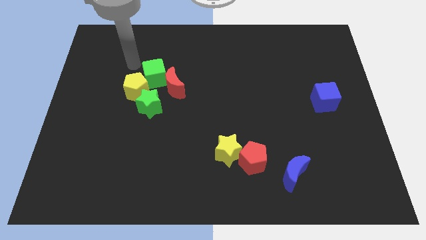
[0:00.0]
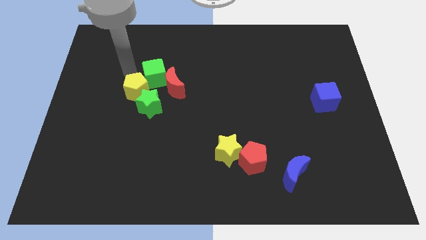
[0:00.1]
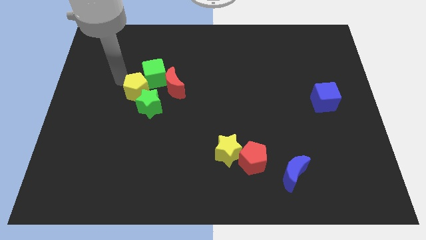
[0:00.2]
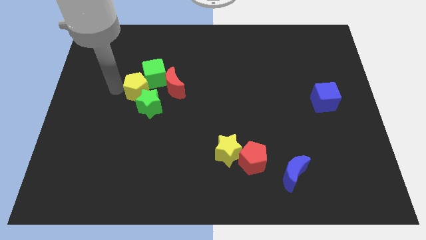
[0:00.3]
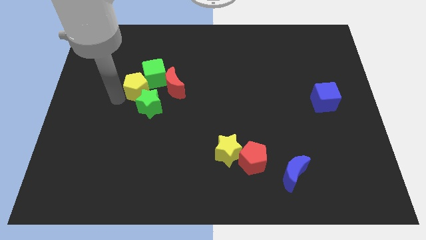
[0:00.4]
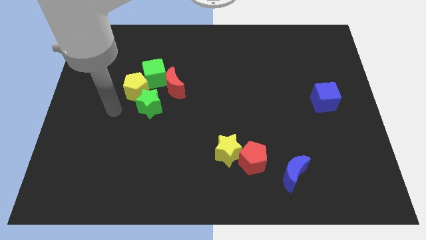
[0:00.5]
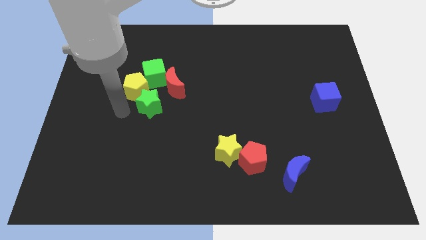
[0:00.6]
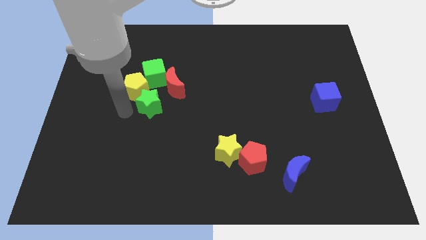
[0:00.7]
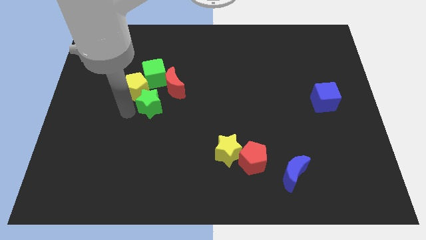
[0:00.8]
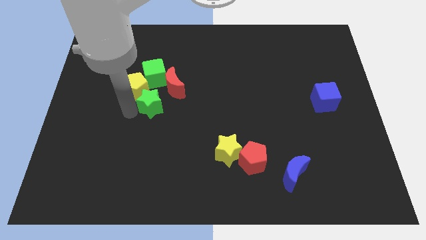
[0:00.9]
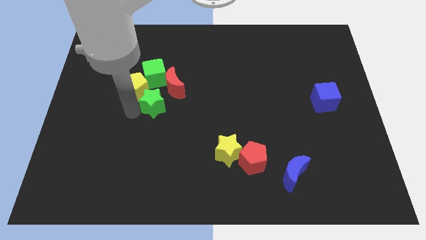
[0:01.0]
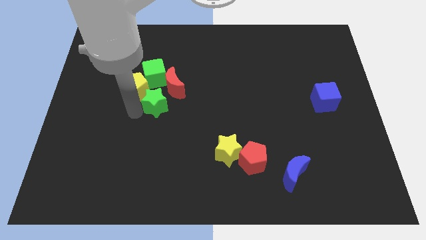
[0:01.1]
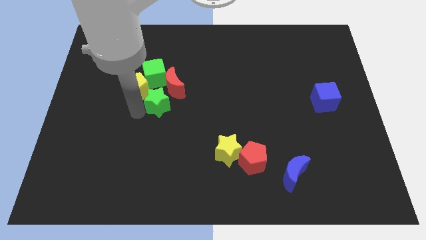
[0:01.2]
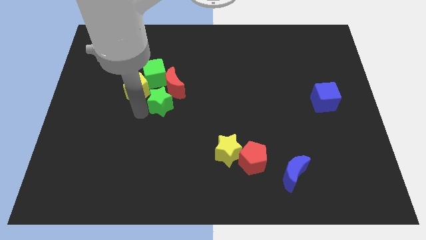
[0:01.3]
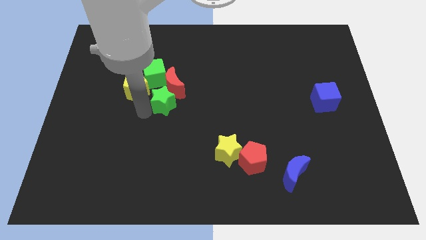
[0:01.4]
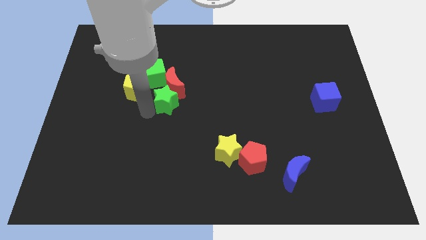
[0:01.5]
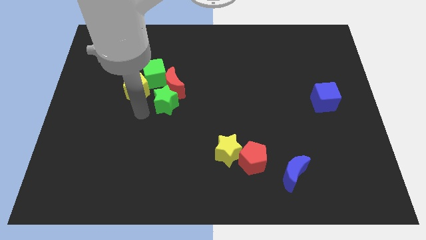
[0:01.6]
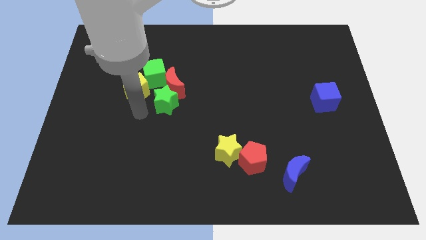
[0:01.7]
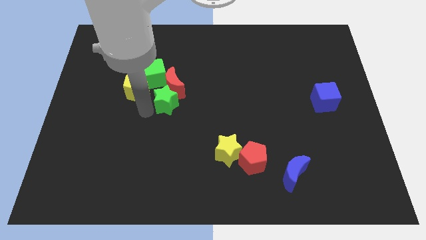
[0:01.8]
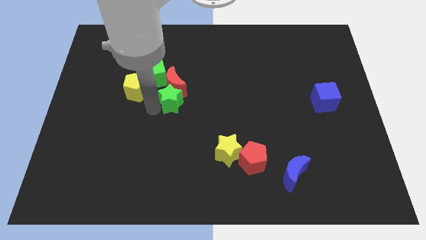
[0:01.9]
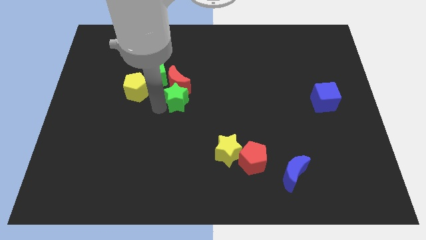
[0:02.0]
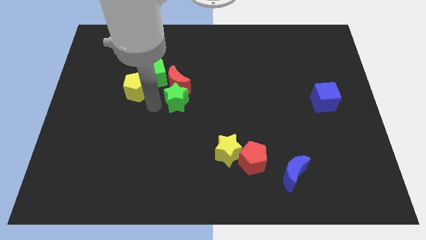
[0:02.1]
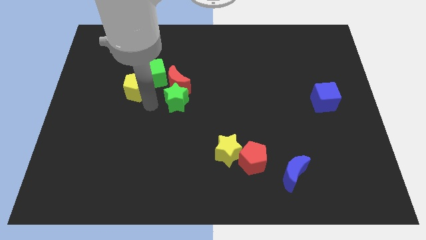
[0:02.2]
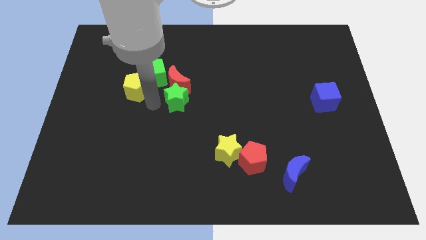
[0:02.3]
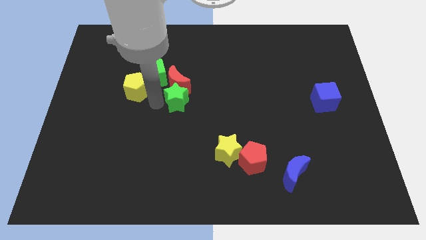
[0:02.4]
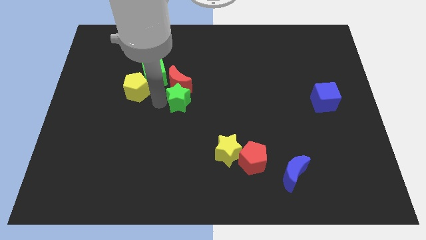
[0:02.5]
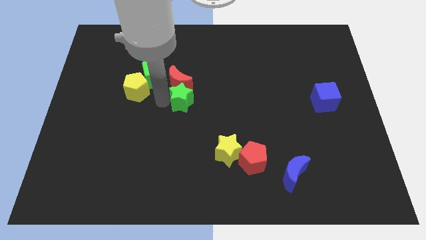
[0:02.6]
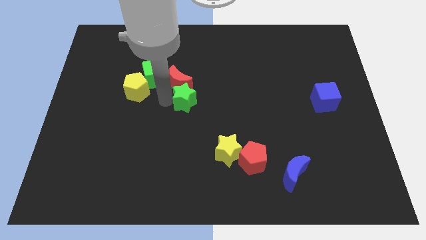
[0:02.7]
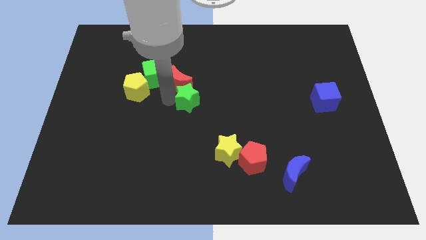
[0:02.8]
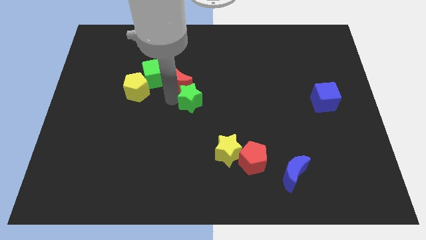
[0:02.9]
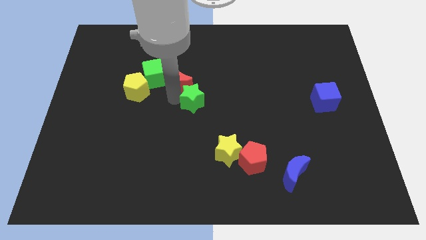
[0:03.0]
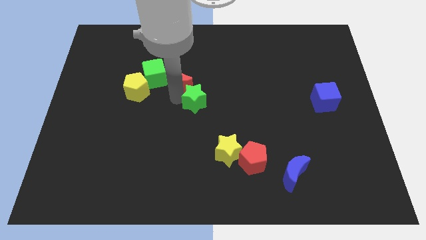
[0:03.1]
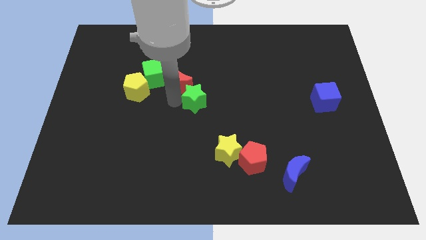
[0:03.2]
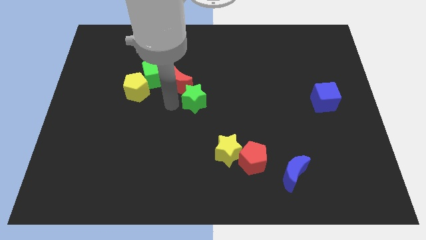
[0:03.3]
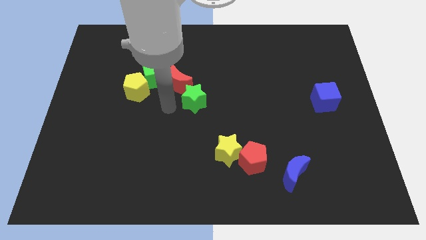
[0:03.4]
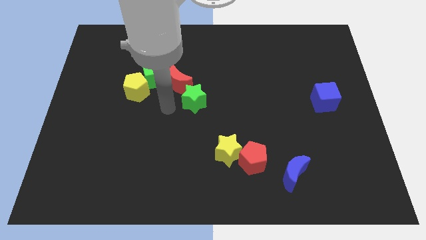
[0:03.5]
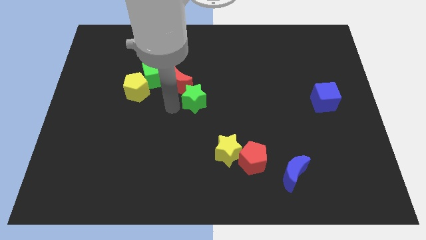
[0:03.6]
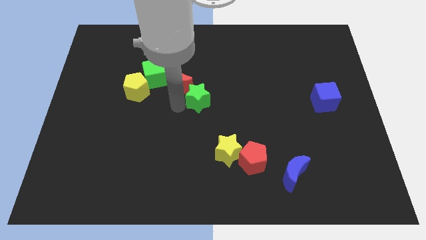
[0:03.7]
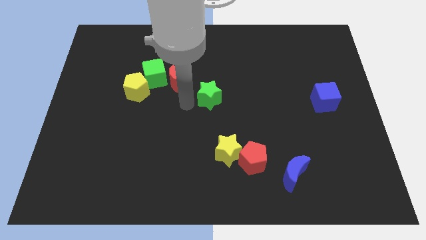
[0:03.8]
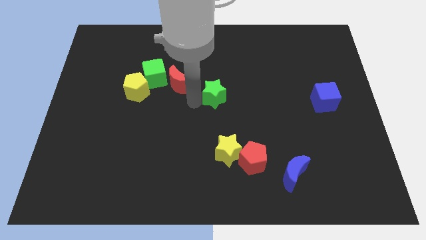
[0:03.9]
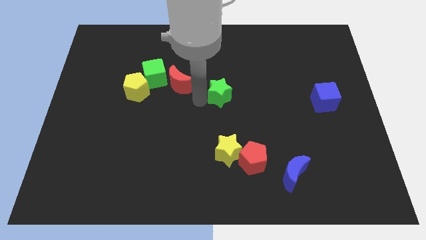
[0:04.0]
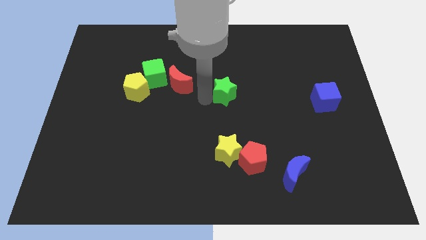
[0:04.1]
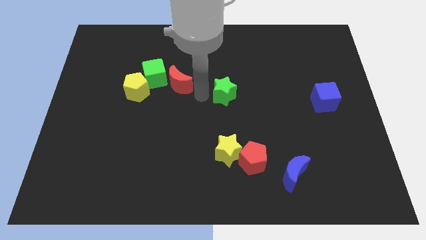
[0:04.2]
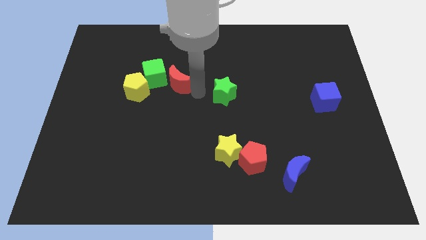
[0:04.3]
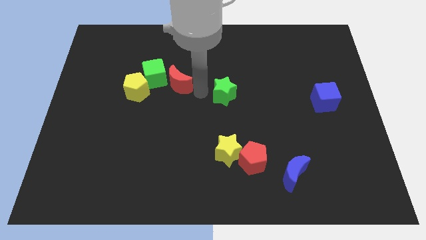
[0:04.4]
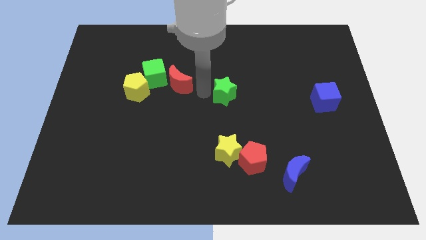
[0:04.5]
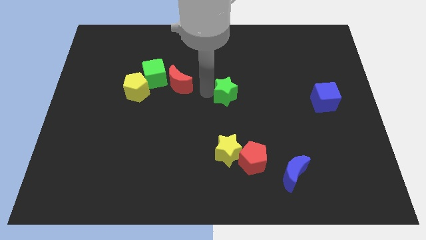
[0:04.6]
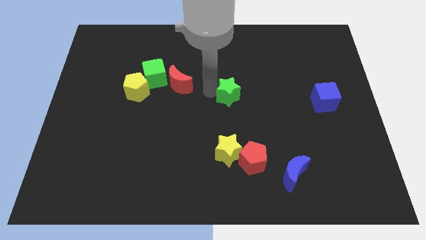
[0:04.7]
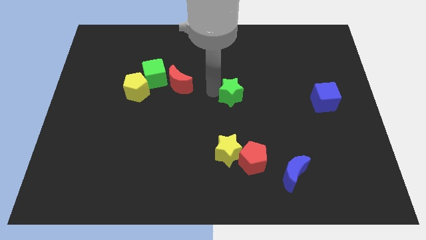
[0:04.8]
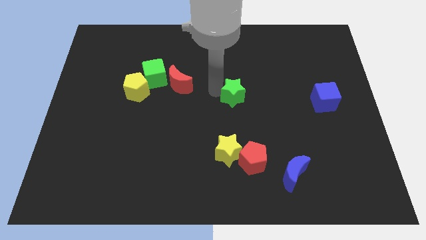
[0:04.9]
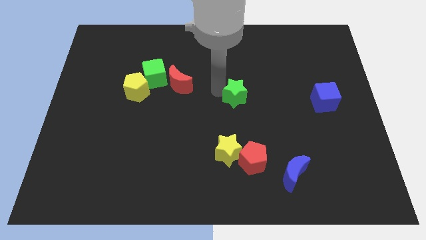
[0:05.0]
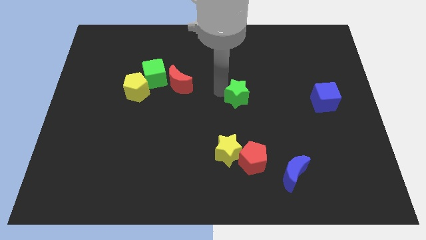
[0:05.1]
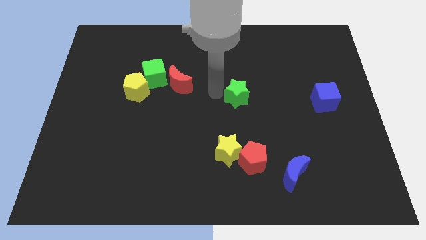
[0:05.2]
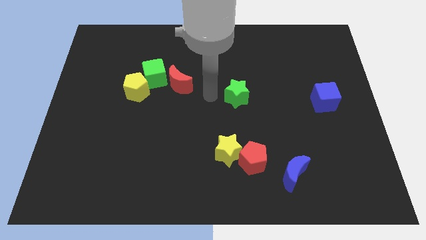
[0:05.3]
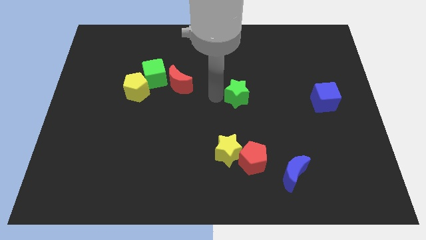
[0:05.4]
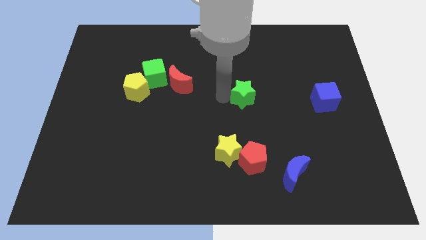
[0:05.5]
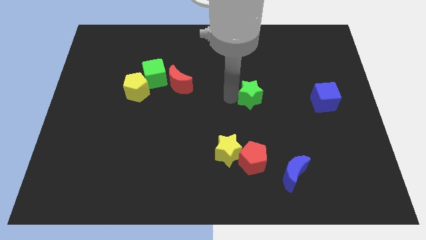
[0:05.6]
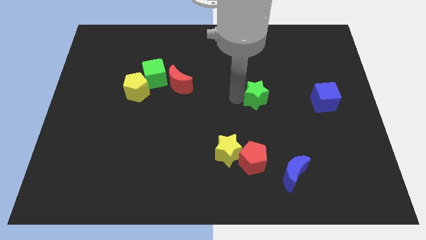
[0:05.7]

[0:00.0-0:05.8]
push the green star left of the blue cube

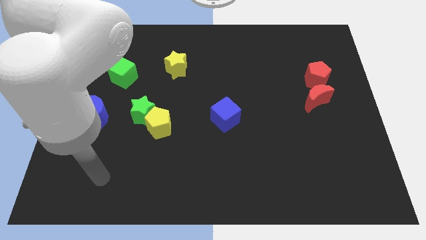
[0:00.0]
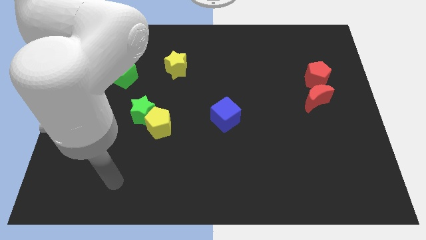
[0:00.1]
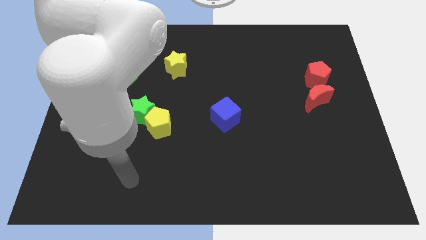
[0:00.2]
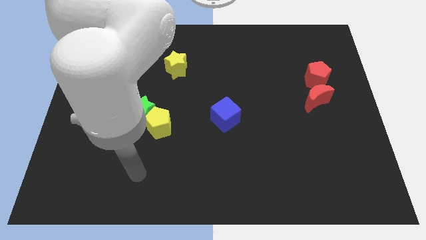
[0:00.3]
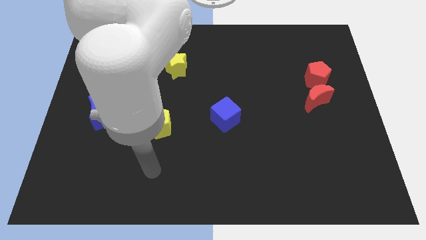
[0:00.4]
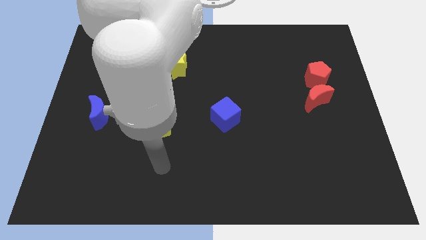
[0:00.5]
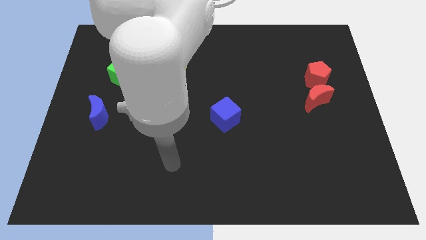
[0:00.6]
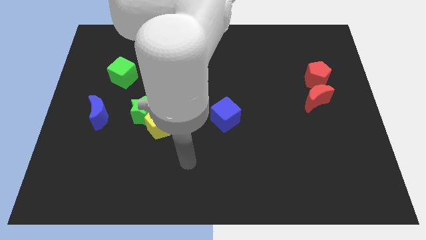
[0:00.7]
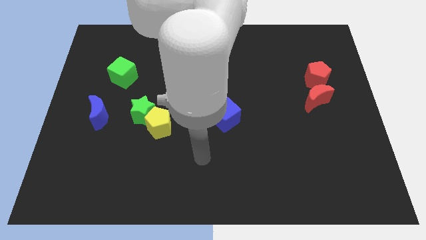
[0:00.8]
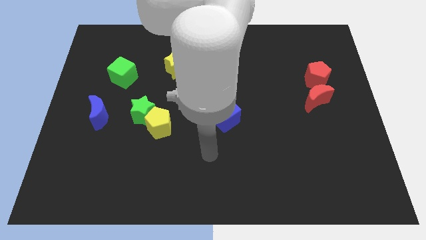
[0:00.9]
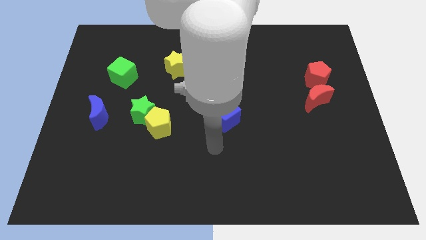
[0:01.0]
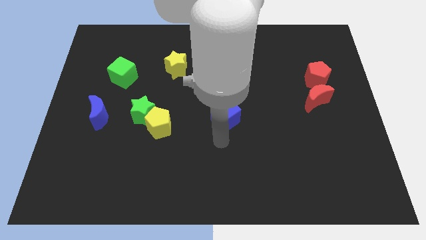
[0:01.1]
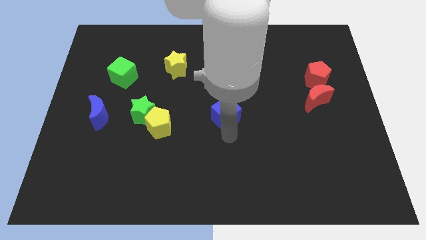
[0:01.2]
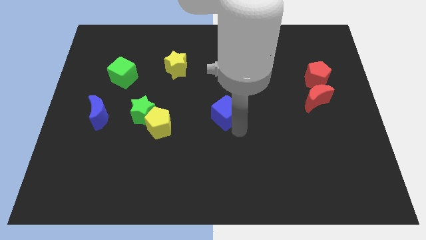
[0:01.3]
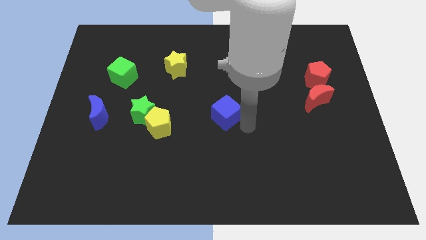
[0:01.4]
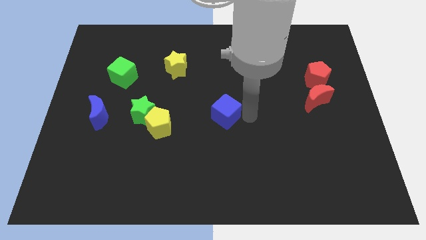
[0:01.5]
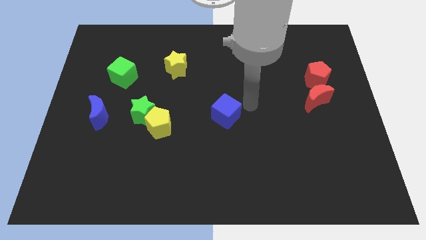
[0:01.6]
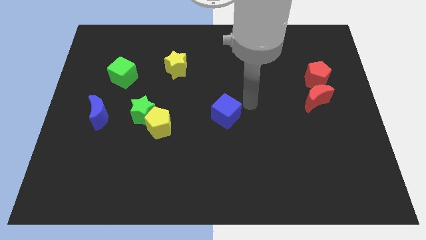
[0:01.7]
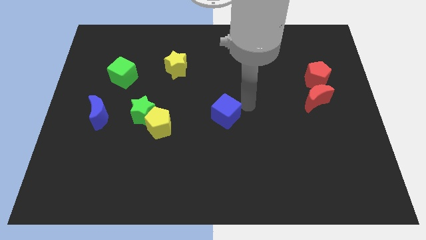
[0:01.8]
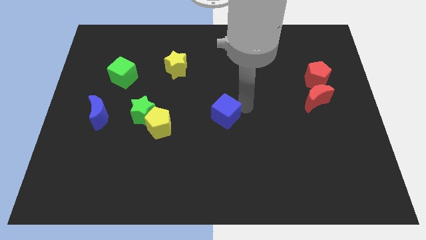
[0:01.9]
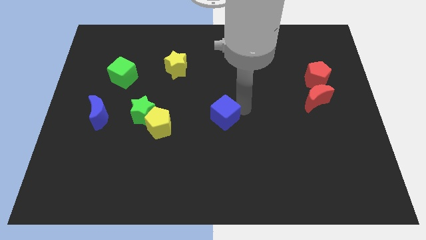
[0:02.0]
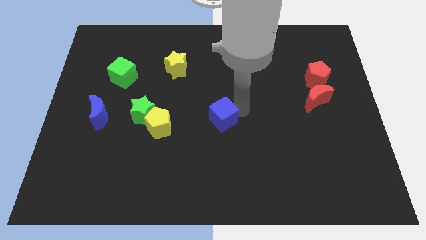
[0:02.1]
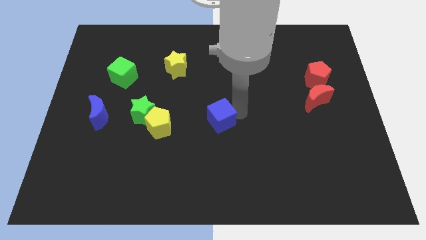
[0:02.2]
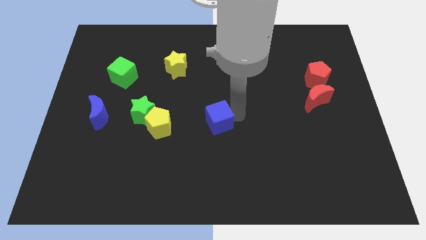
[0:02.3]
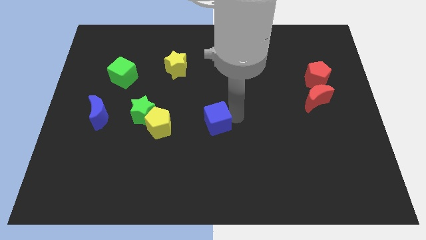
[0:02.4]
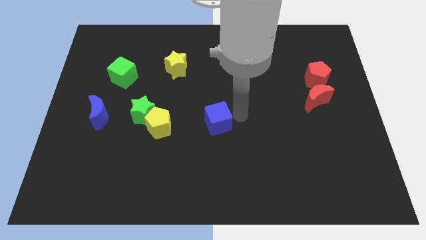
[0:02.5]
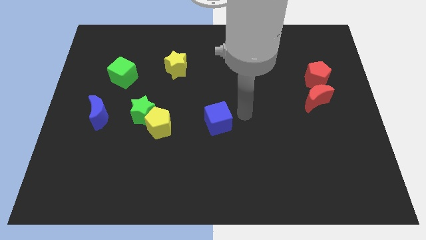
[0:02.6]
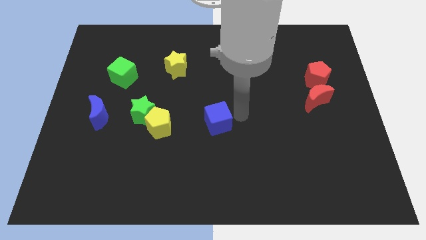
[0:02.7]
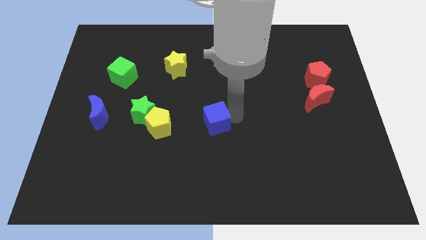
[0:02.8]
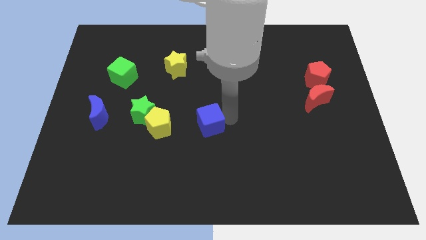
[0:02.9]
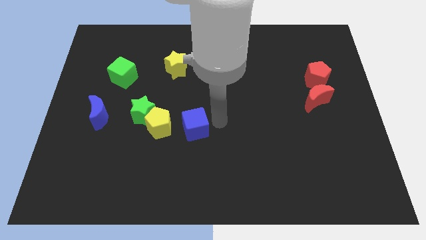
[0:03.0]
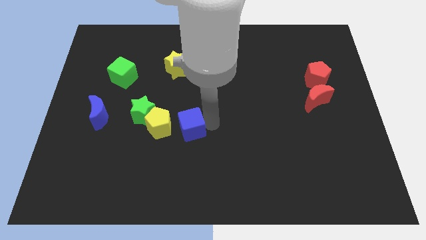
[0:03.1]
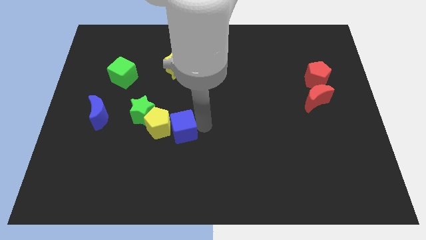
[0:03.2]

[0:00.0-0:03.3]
push the blue cube diagonally down and to the right of the green star
